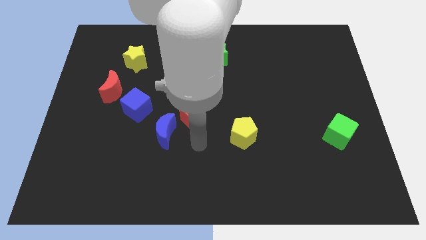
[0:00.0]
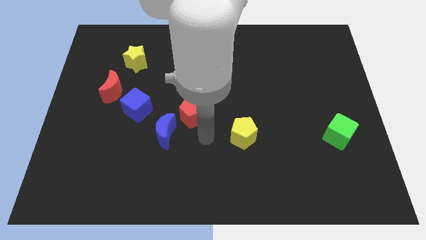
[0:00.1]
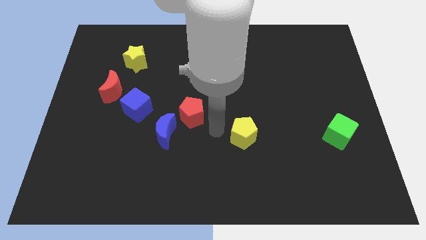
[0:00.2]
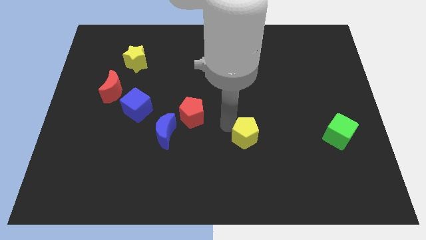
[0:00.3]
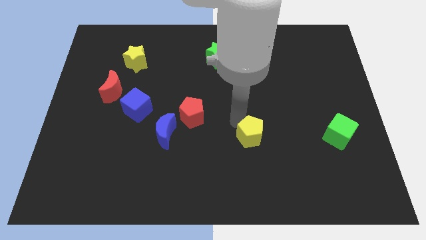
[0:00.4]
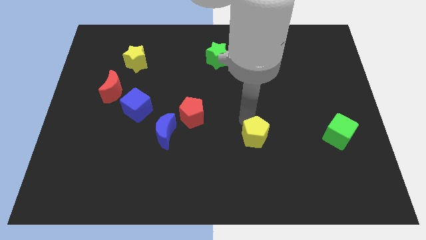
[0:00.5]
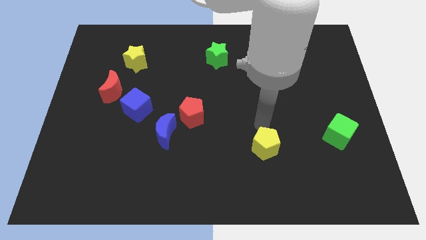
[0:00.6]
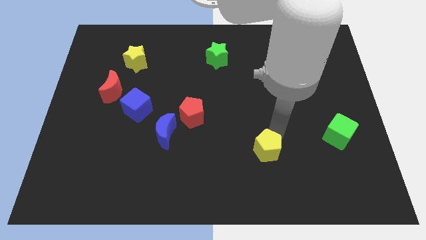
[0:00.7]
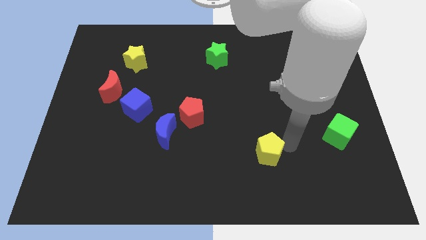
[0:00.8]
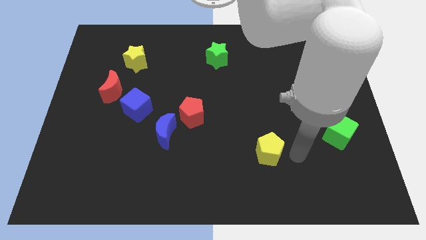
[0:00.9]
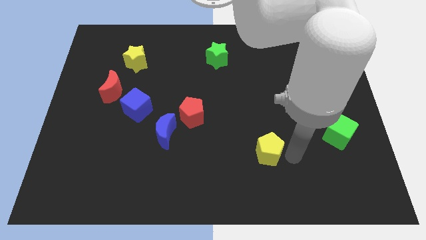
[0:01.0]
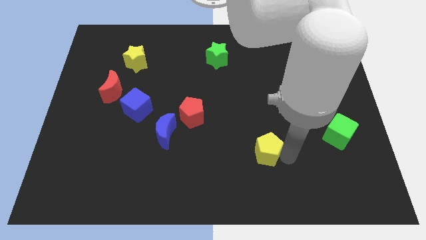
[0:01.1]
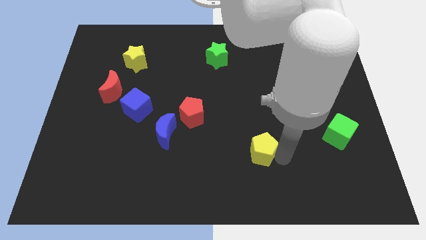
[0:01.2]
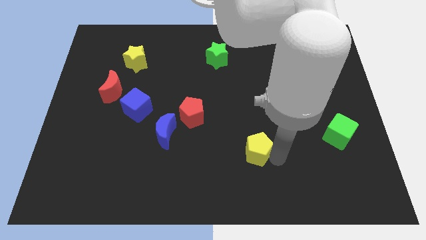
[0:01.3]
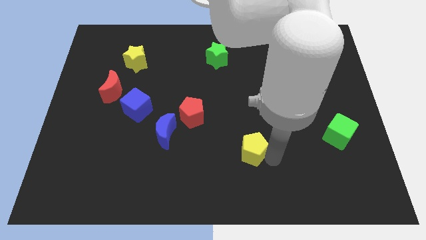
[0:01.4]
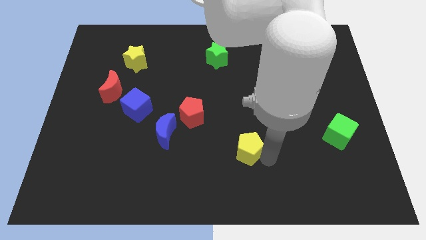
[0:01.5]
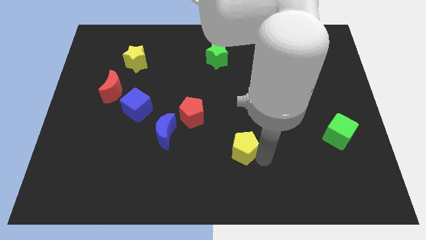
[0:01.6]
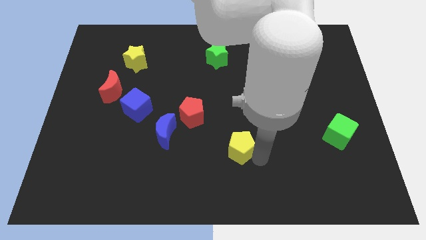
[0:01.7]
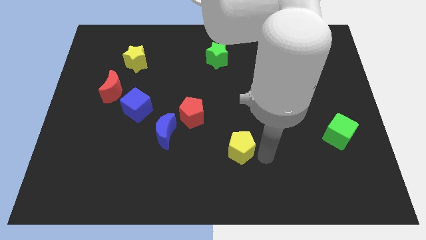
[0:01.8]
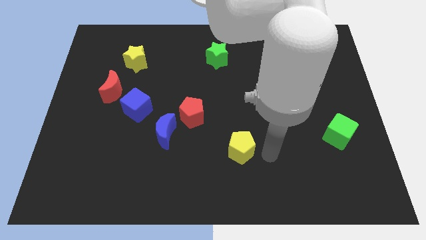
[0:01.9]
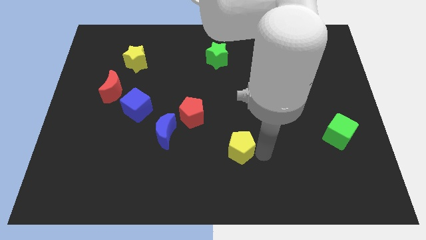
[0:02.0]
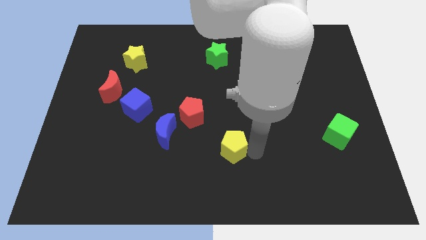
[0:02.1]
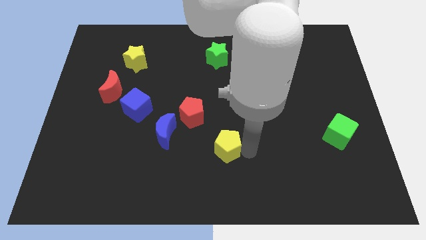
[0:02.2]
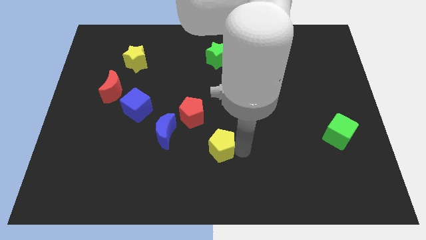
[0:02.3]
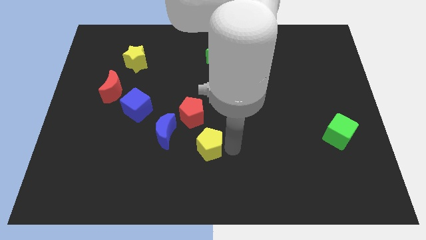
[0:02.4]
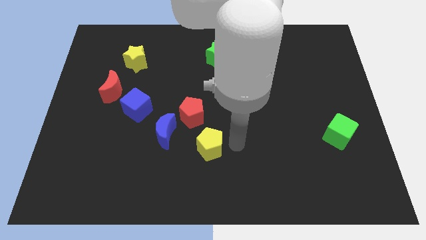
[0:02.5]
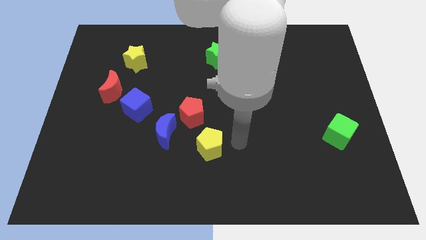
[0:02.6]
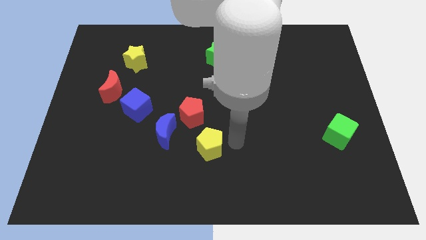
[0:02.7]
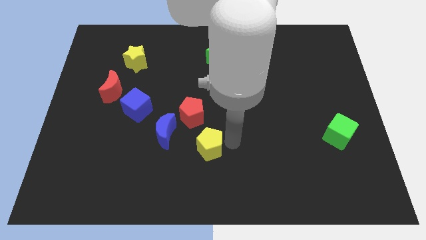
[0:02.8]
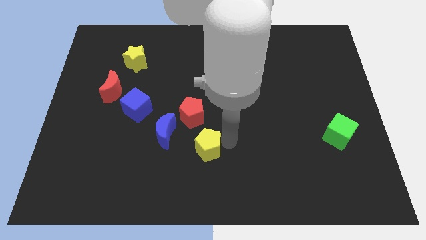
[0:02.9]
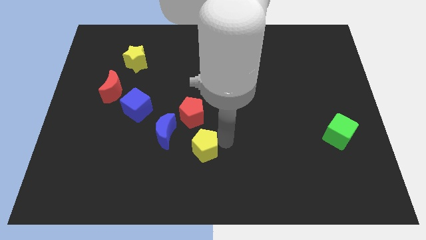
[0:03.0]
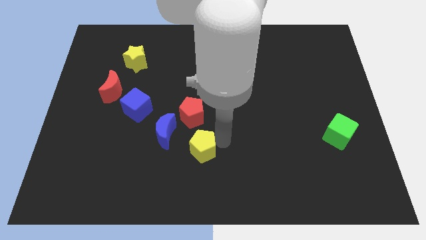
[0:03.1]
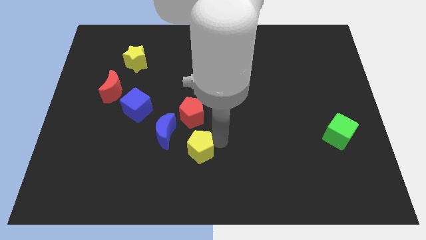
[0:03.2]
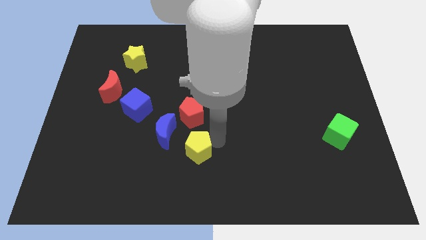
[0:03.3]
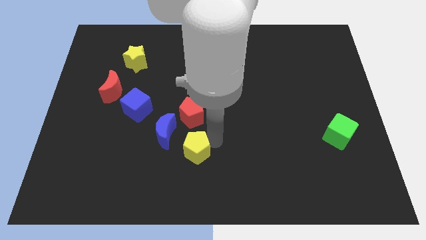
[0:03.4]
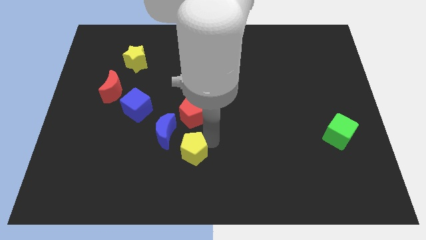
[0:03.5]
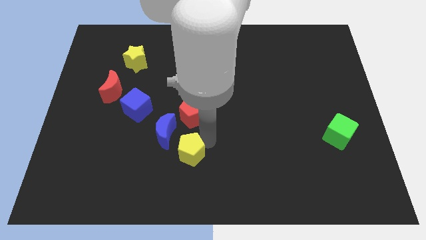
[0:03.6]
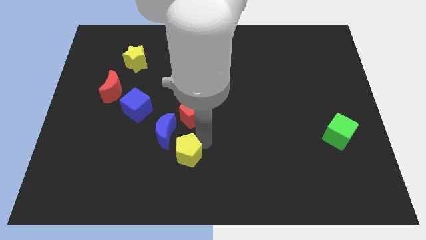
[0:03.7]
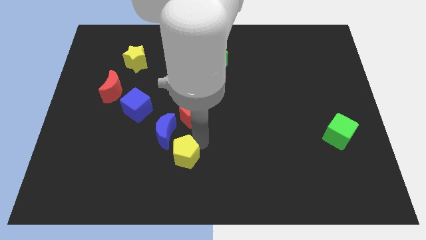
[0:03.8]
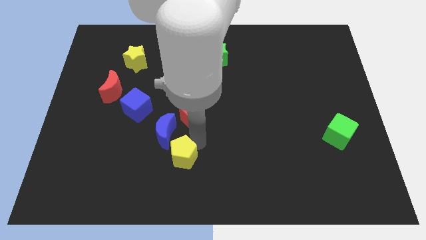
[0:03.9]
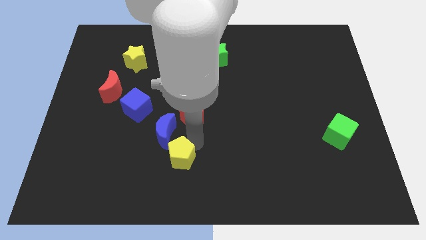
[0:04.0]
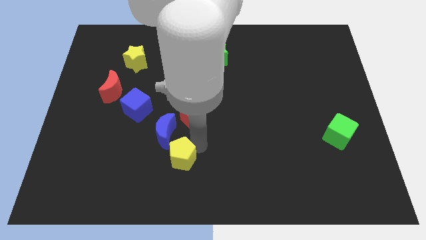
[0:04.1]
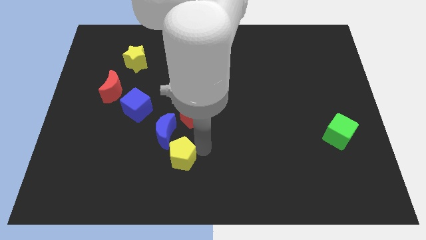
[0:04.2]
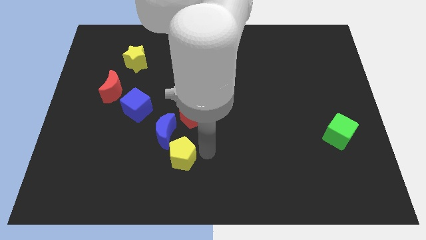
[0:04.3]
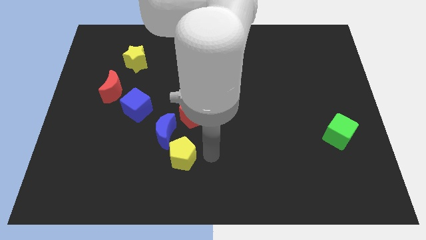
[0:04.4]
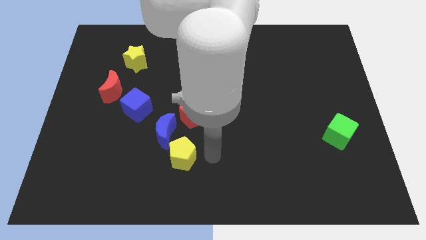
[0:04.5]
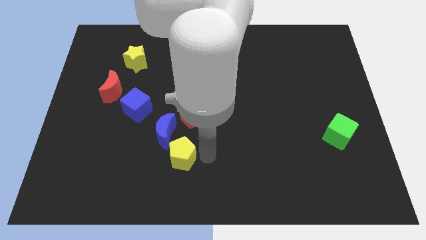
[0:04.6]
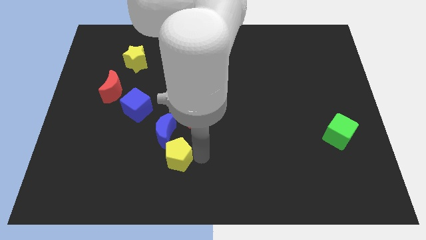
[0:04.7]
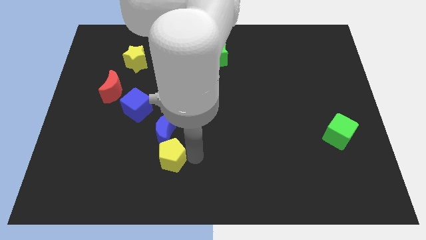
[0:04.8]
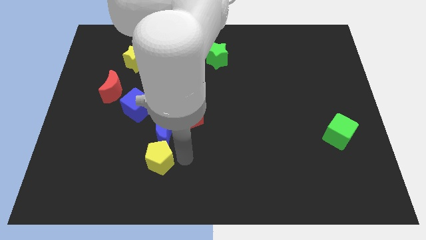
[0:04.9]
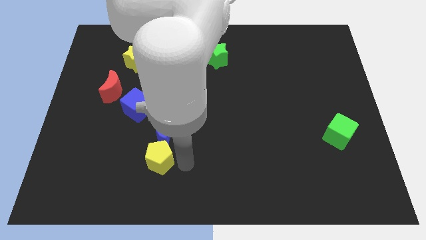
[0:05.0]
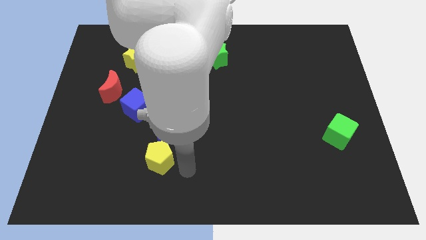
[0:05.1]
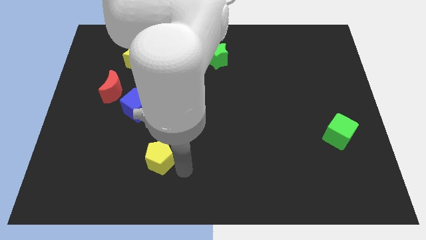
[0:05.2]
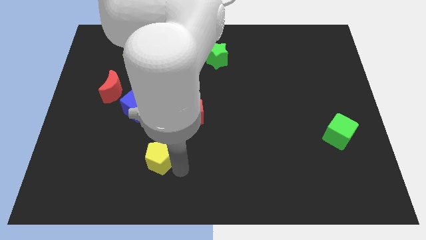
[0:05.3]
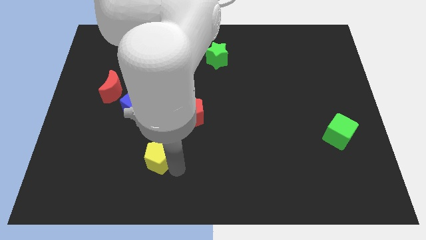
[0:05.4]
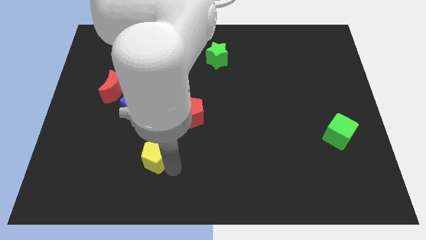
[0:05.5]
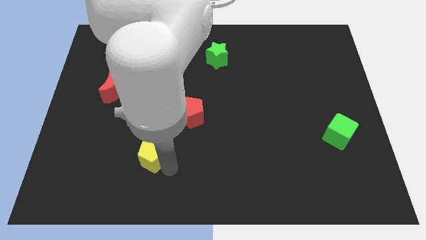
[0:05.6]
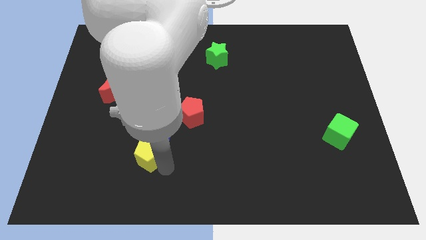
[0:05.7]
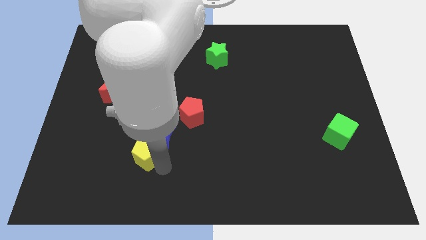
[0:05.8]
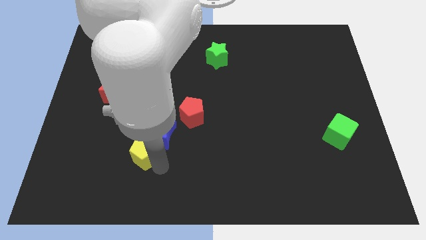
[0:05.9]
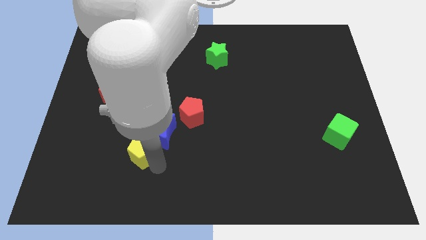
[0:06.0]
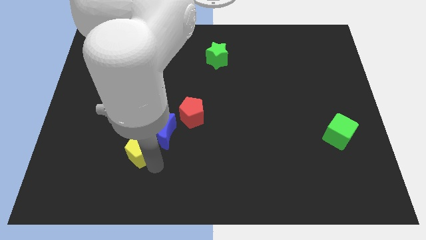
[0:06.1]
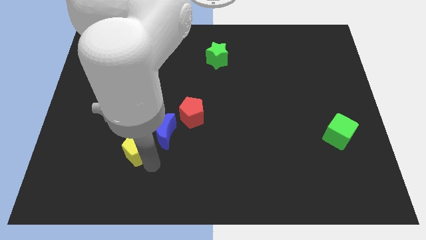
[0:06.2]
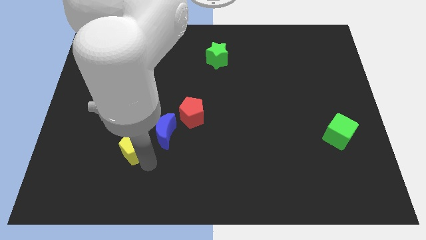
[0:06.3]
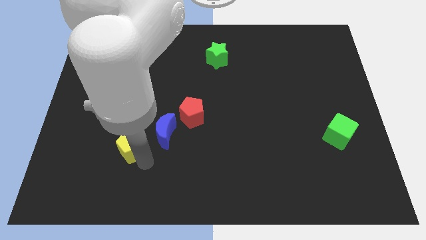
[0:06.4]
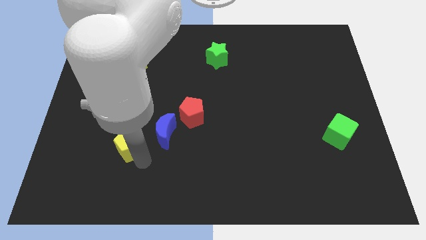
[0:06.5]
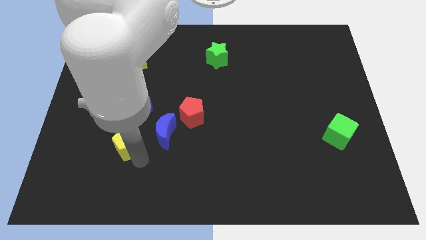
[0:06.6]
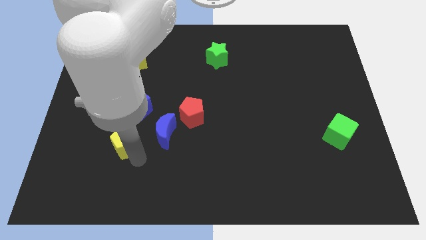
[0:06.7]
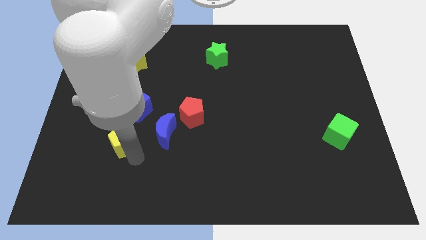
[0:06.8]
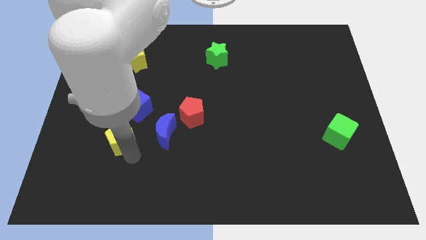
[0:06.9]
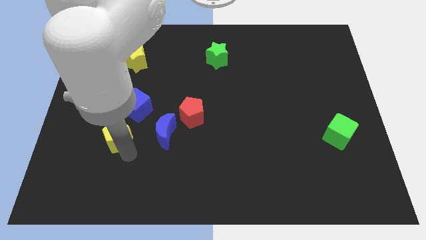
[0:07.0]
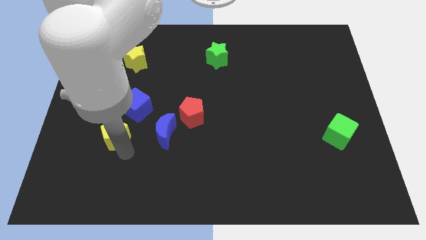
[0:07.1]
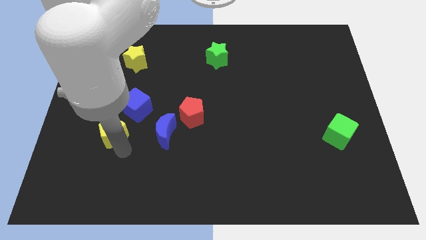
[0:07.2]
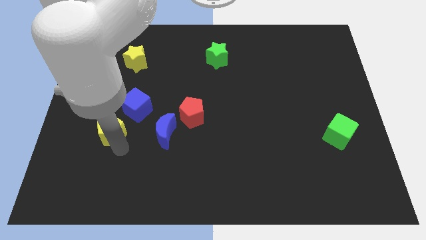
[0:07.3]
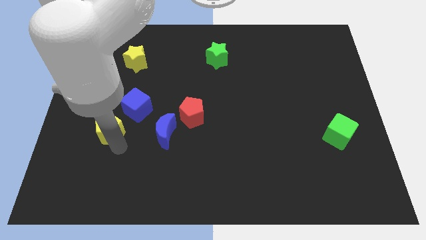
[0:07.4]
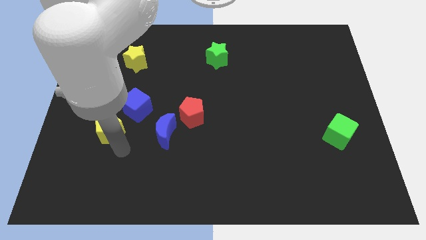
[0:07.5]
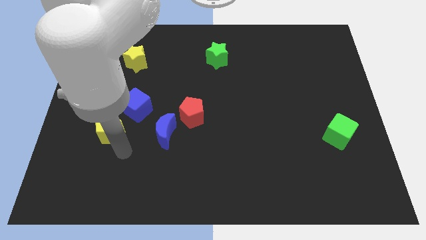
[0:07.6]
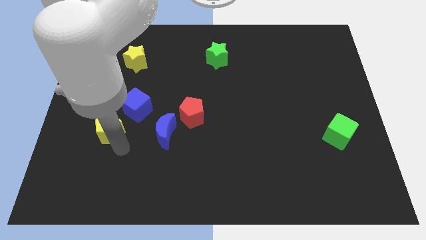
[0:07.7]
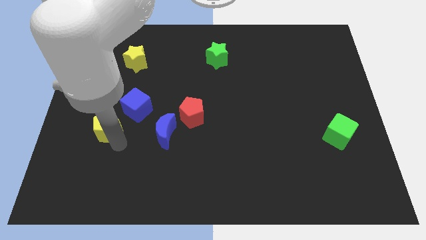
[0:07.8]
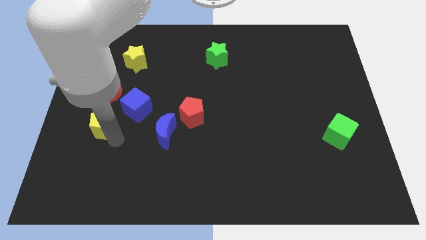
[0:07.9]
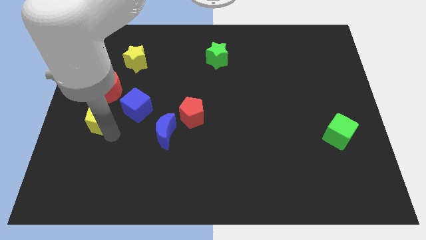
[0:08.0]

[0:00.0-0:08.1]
push the yellow pentagon to the left of the blue cube
